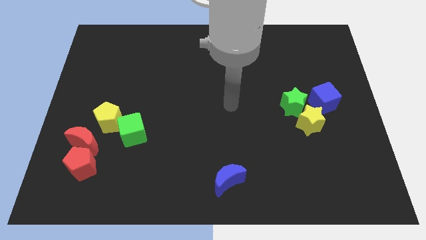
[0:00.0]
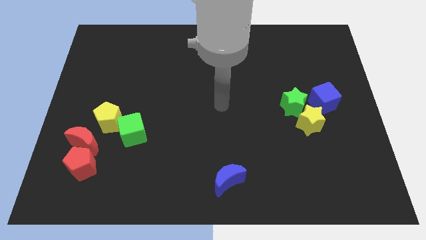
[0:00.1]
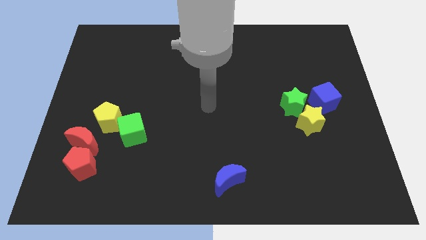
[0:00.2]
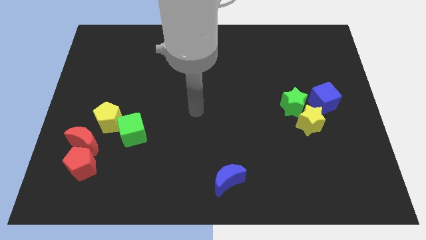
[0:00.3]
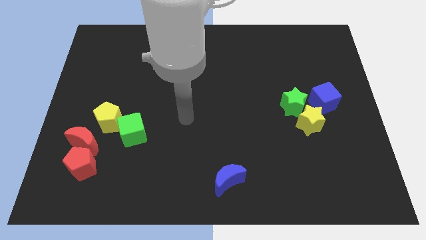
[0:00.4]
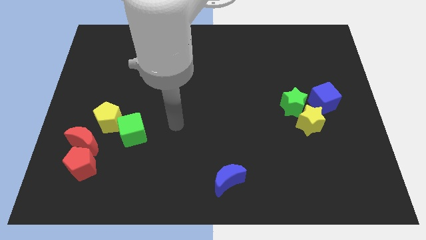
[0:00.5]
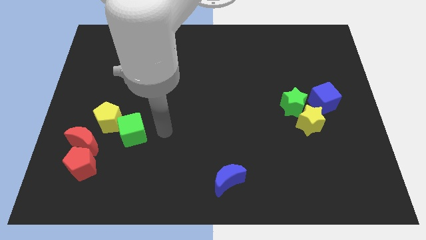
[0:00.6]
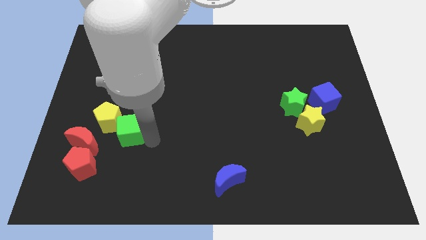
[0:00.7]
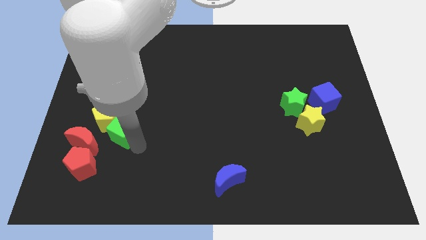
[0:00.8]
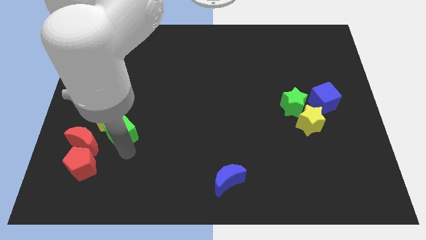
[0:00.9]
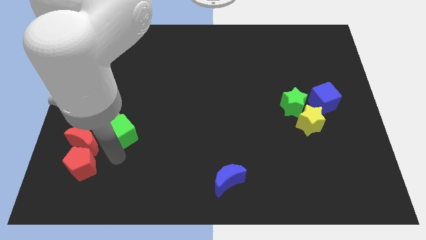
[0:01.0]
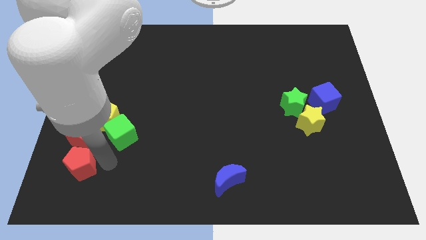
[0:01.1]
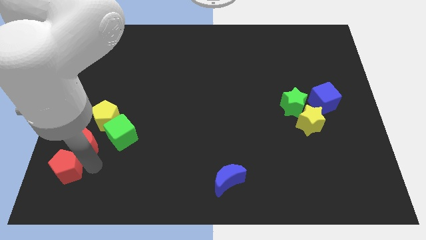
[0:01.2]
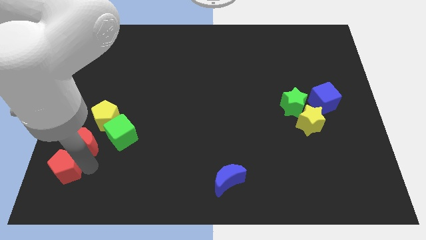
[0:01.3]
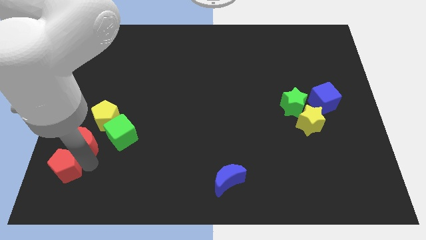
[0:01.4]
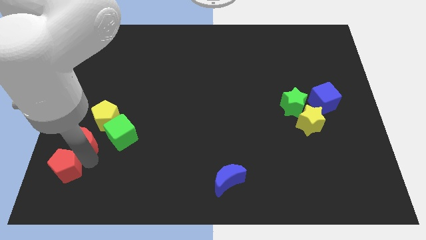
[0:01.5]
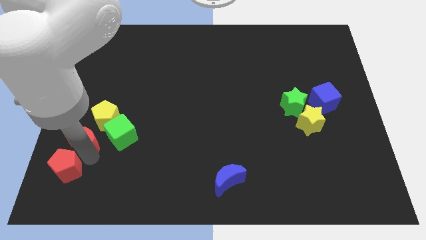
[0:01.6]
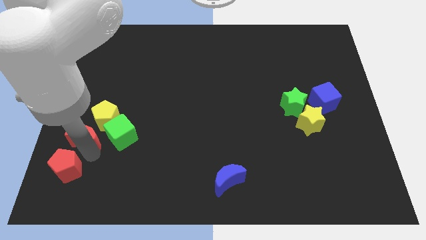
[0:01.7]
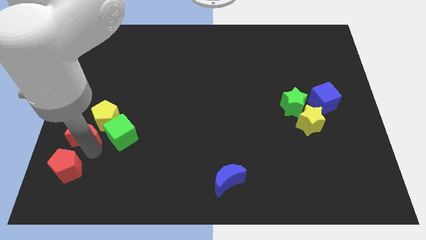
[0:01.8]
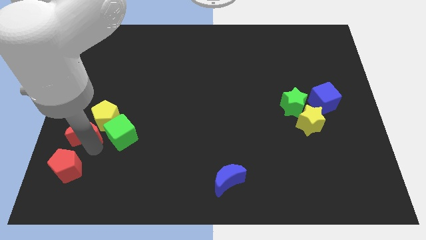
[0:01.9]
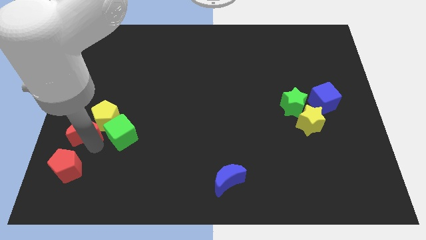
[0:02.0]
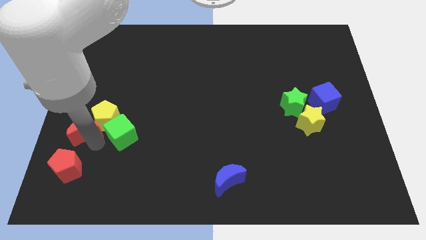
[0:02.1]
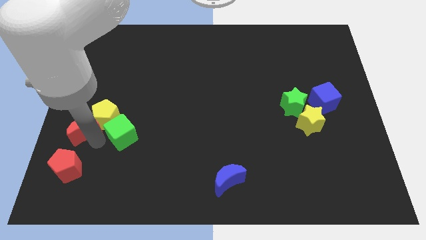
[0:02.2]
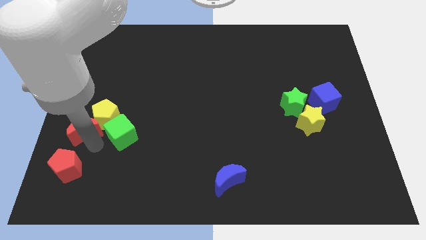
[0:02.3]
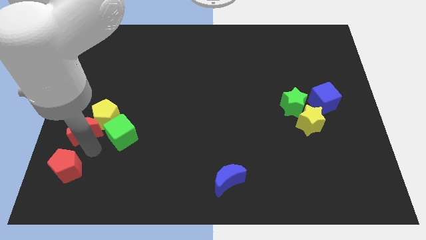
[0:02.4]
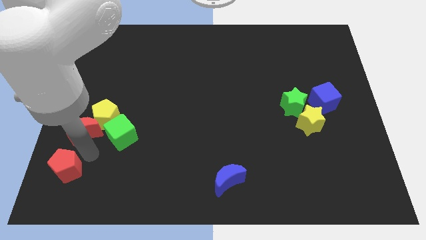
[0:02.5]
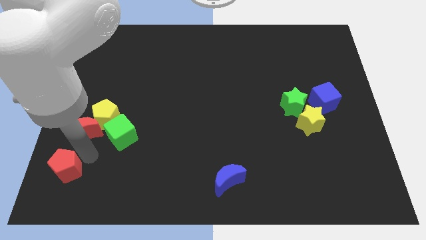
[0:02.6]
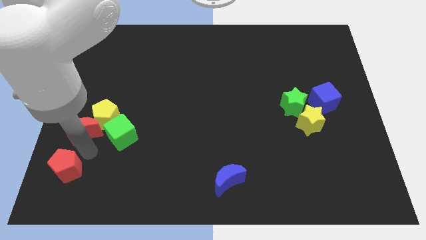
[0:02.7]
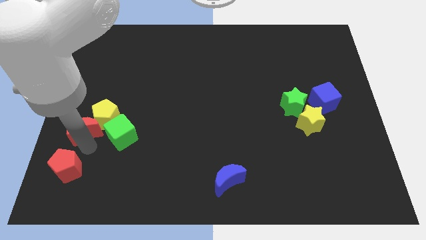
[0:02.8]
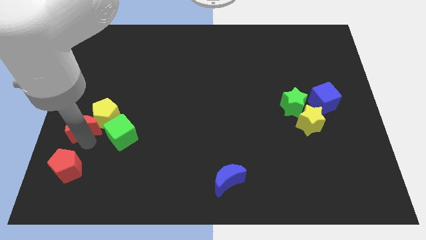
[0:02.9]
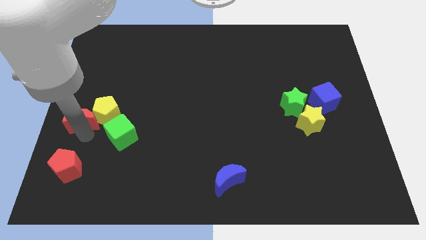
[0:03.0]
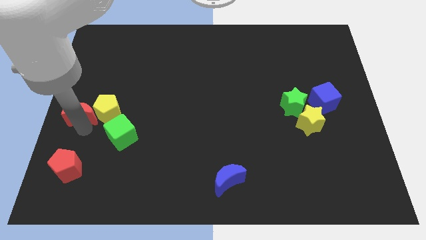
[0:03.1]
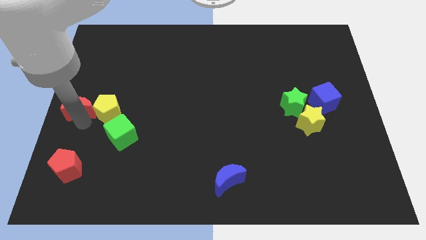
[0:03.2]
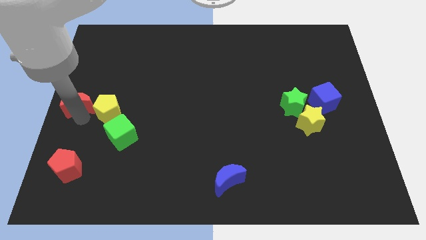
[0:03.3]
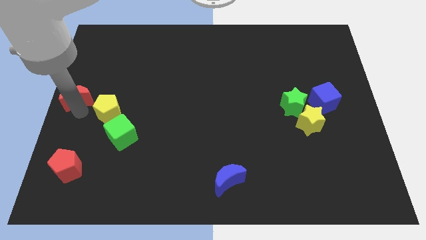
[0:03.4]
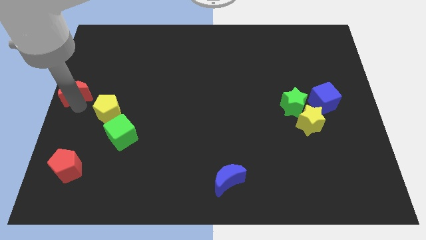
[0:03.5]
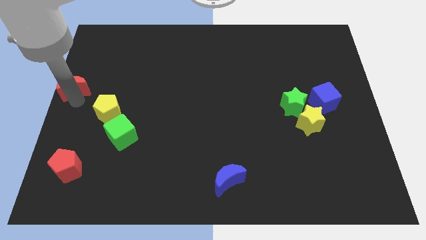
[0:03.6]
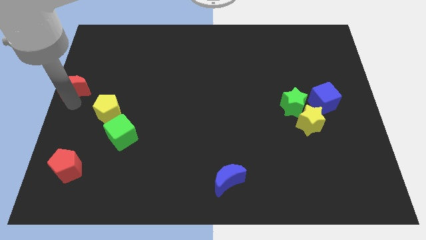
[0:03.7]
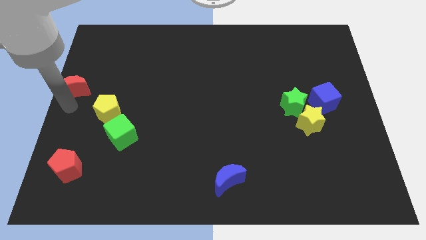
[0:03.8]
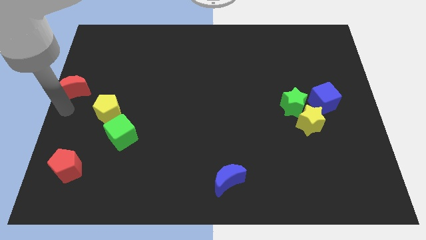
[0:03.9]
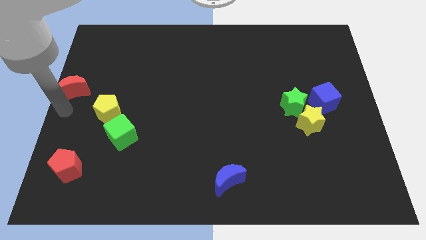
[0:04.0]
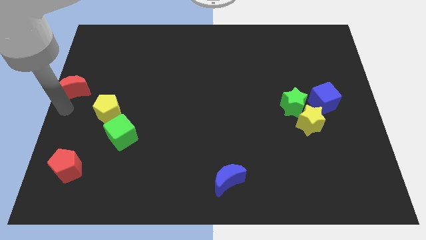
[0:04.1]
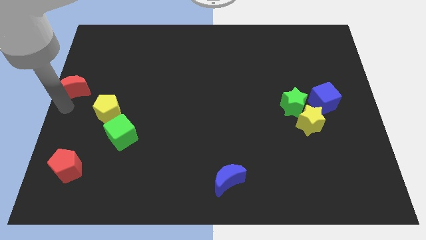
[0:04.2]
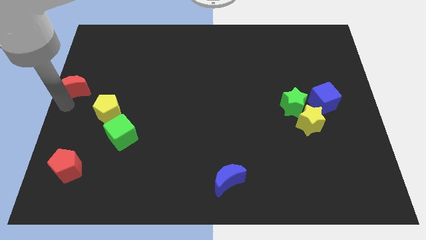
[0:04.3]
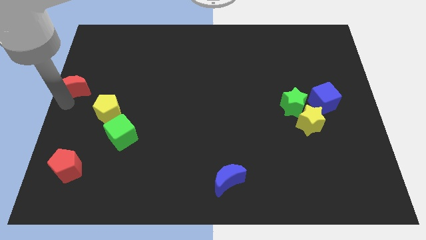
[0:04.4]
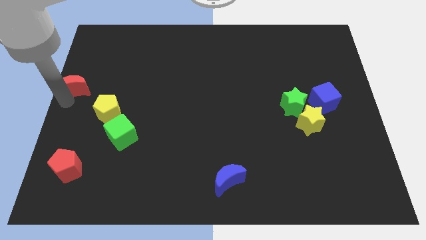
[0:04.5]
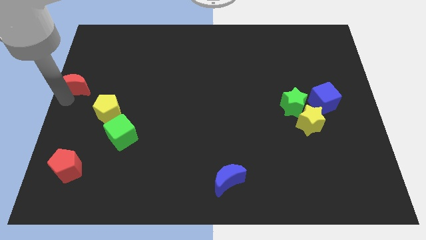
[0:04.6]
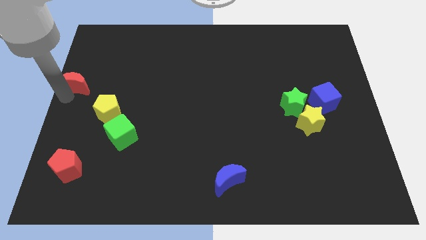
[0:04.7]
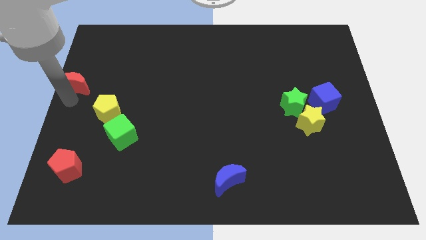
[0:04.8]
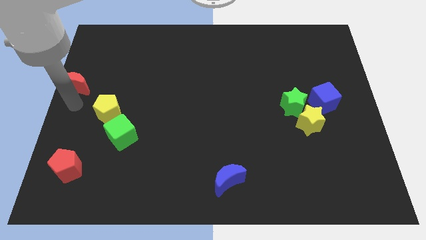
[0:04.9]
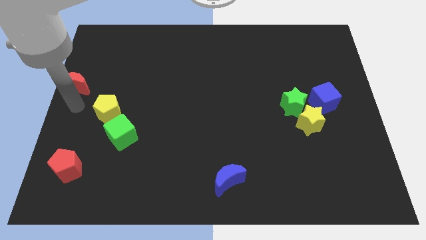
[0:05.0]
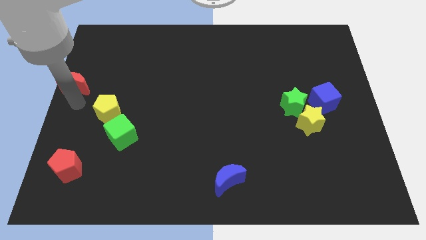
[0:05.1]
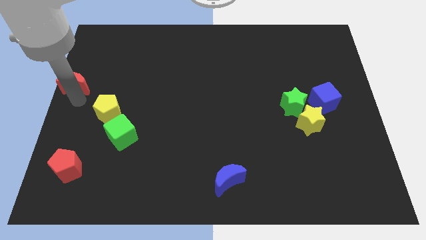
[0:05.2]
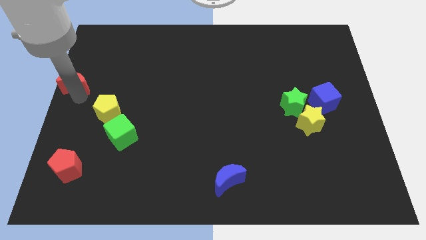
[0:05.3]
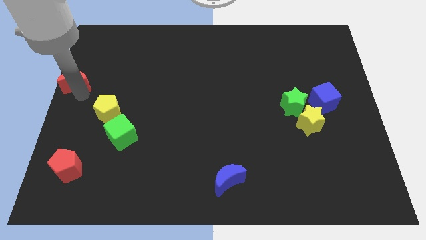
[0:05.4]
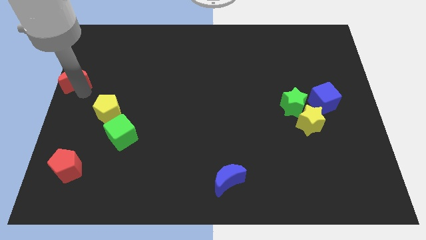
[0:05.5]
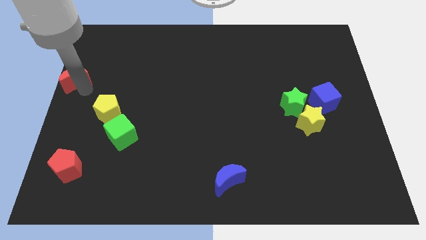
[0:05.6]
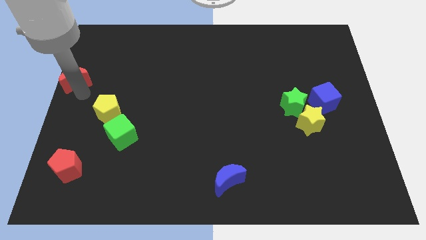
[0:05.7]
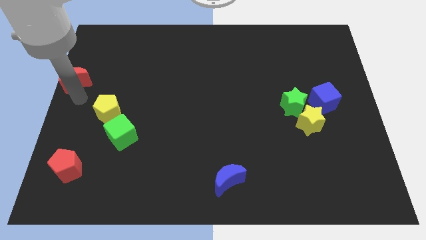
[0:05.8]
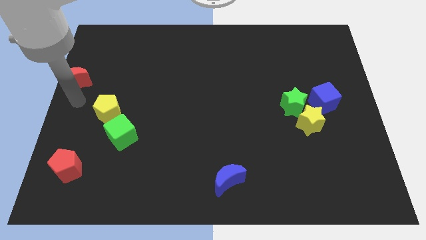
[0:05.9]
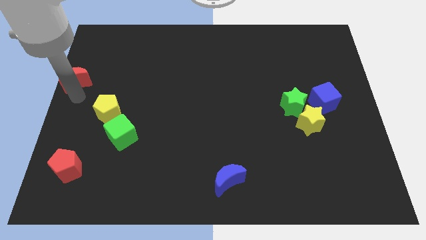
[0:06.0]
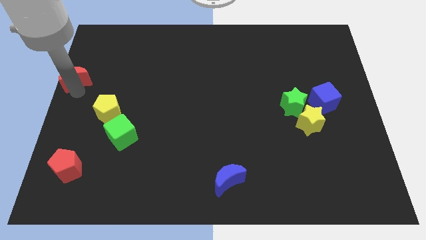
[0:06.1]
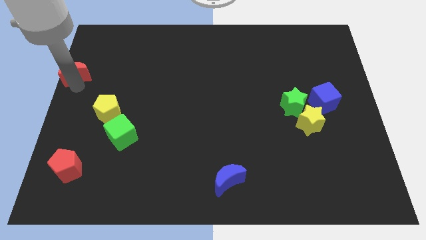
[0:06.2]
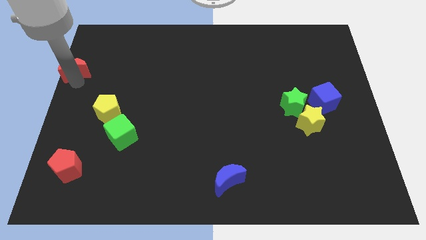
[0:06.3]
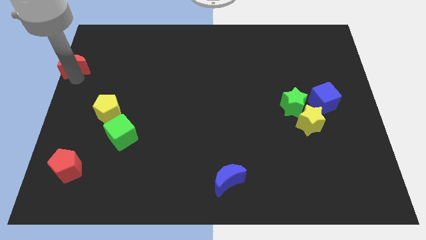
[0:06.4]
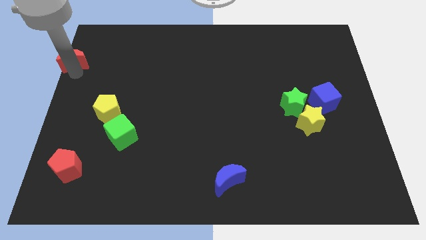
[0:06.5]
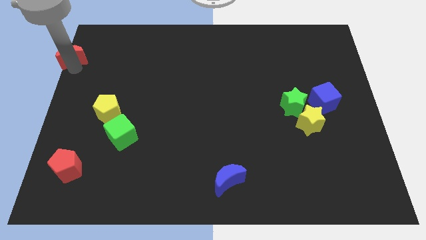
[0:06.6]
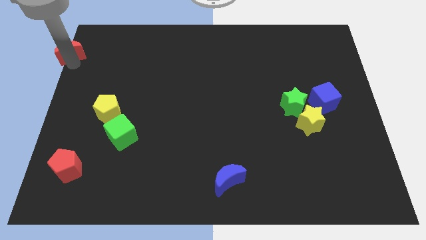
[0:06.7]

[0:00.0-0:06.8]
move the red moon to the top left of the board
